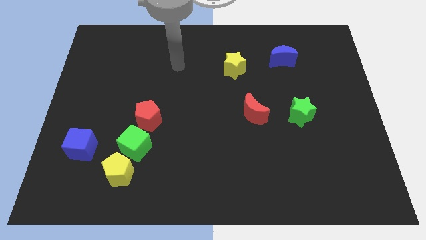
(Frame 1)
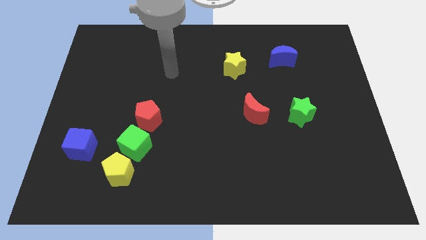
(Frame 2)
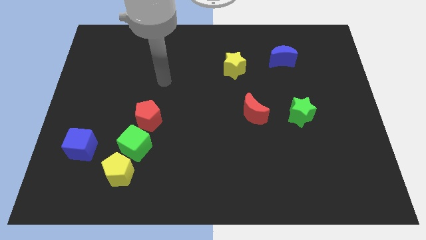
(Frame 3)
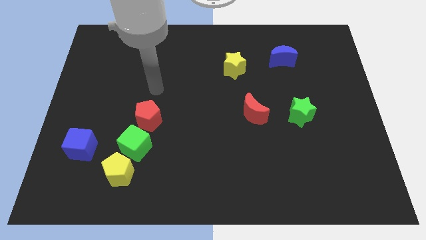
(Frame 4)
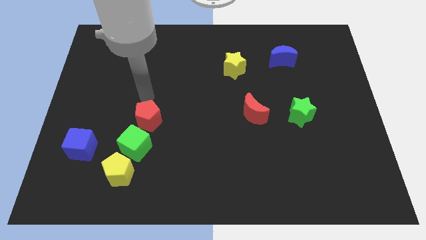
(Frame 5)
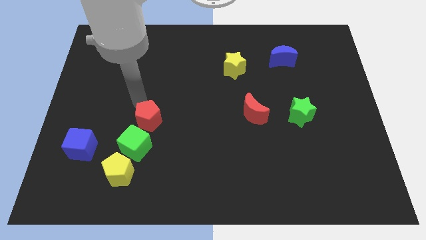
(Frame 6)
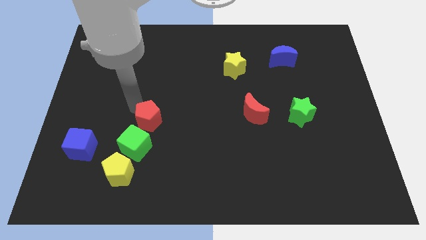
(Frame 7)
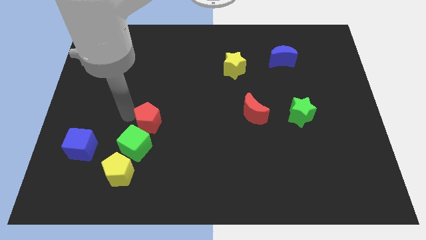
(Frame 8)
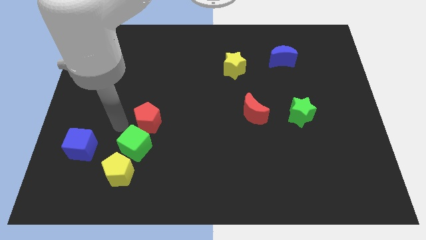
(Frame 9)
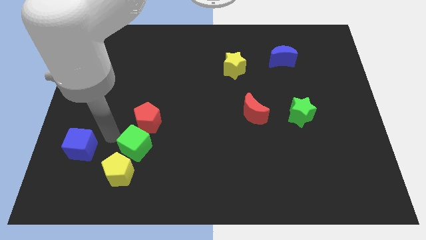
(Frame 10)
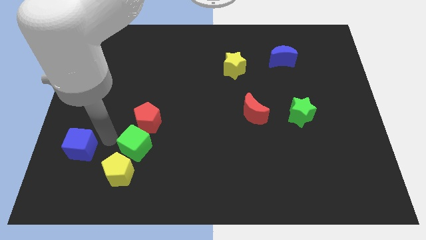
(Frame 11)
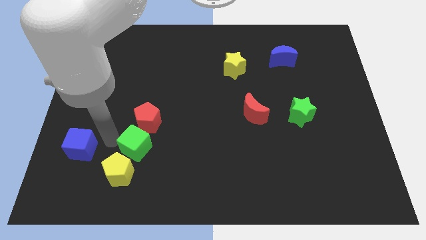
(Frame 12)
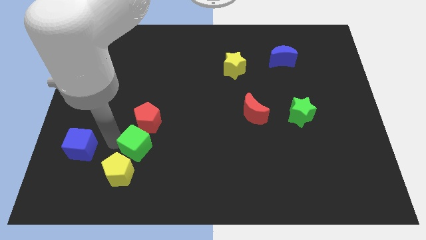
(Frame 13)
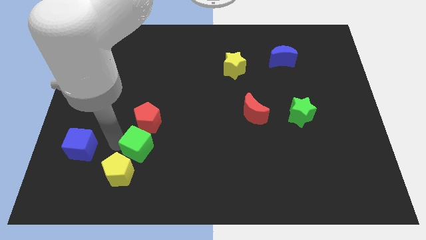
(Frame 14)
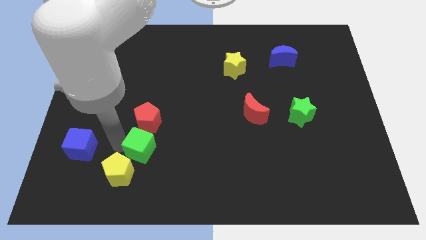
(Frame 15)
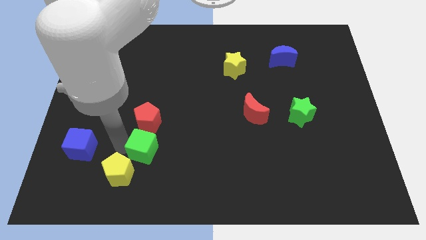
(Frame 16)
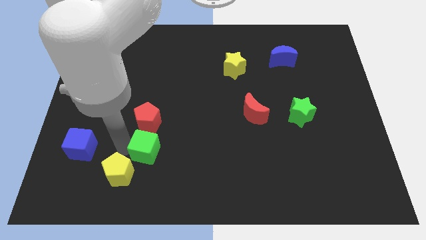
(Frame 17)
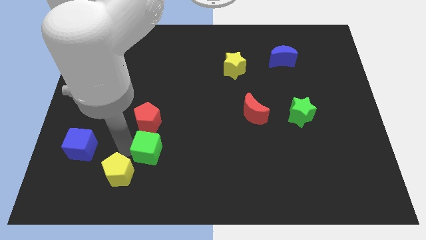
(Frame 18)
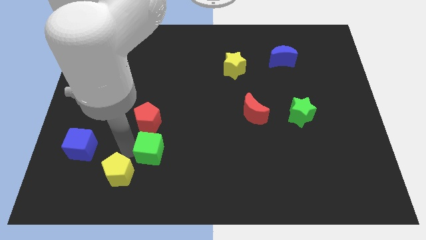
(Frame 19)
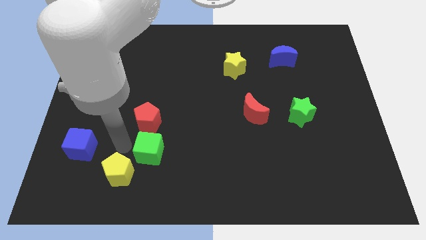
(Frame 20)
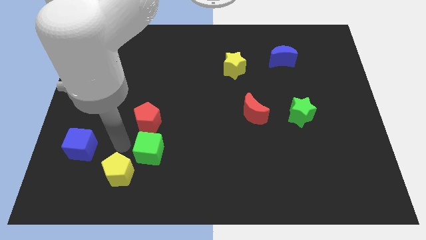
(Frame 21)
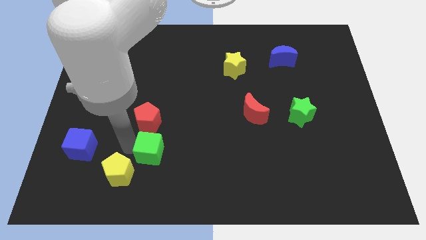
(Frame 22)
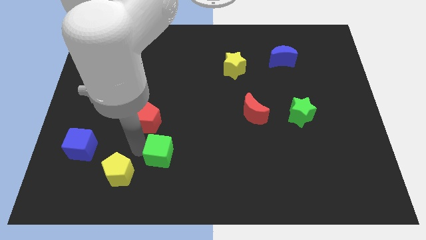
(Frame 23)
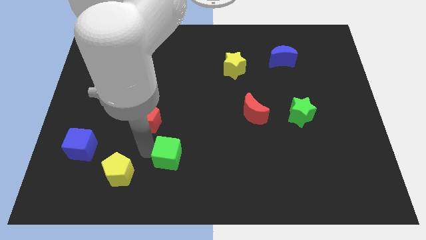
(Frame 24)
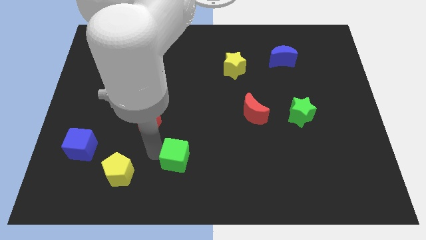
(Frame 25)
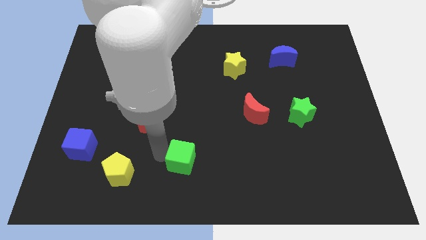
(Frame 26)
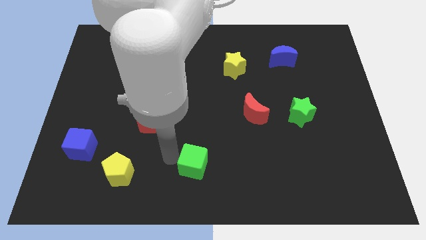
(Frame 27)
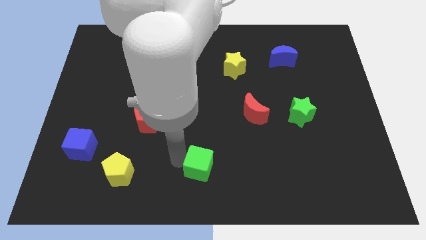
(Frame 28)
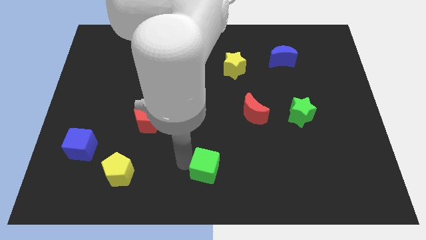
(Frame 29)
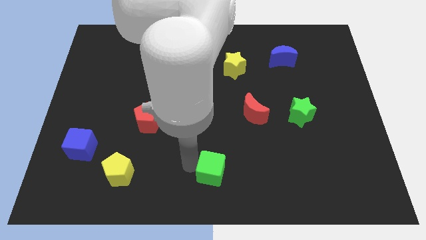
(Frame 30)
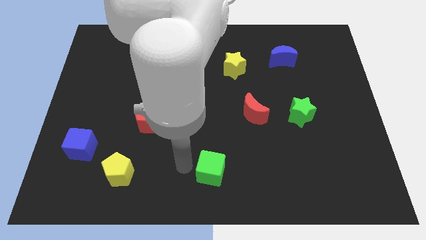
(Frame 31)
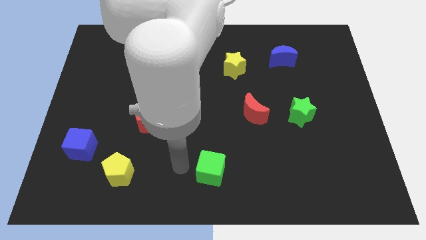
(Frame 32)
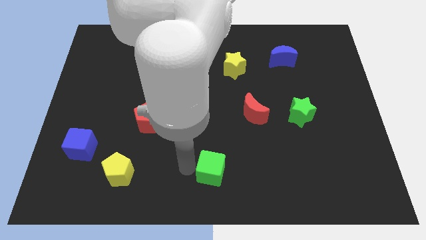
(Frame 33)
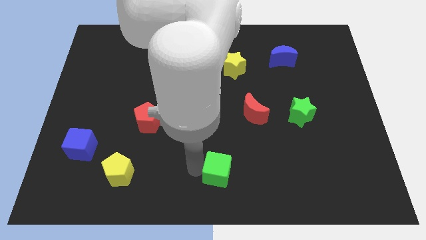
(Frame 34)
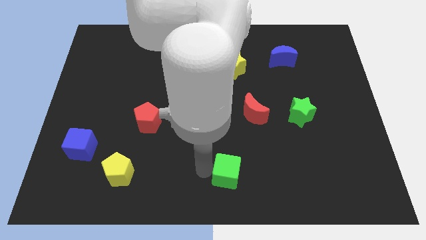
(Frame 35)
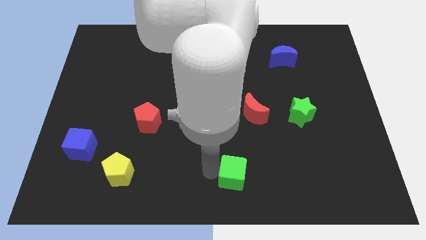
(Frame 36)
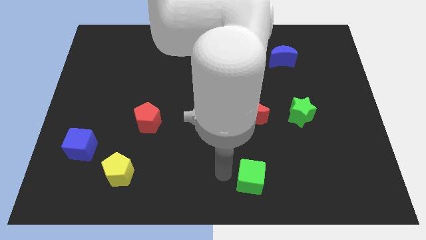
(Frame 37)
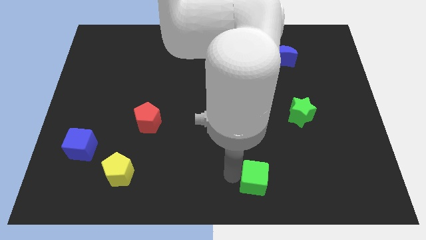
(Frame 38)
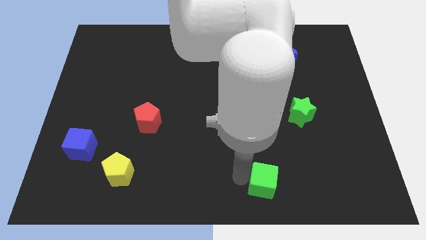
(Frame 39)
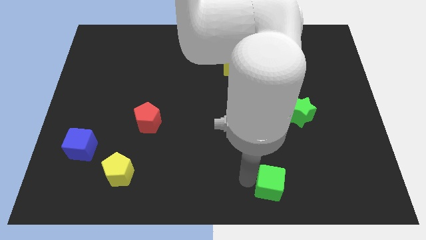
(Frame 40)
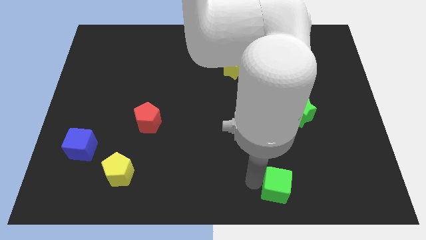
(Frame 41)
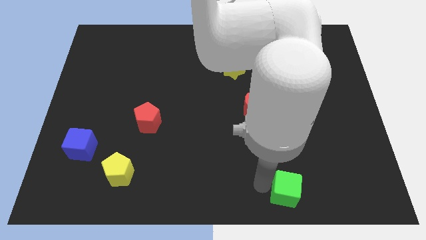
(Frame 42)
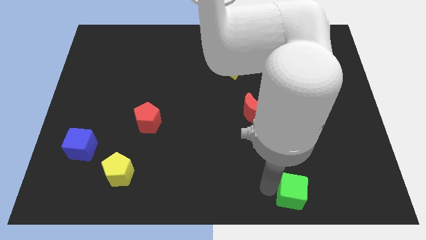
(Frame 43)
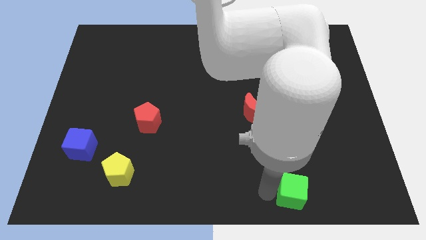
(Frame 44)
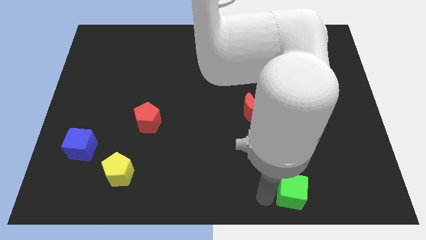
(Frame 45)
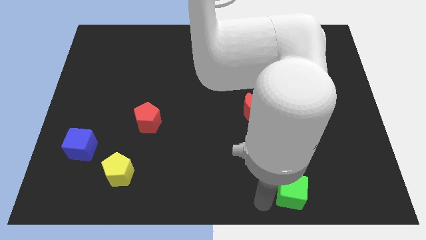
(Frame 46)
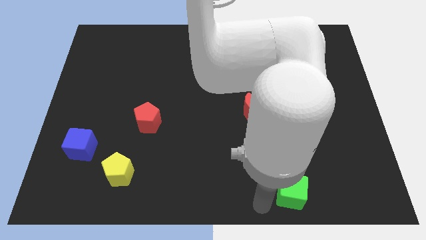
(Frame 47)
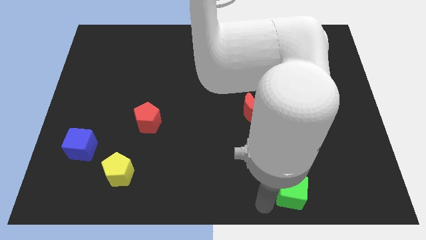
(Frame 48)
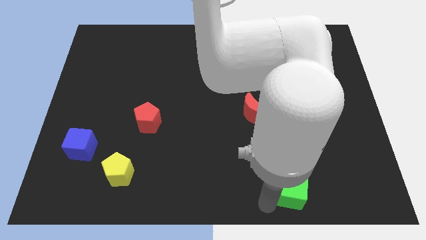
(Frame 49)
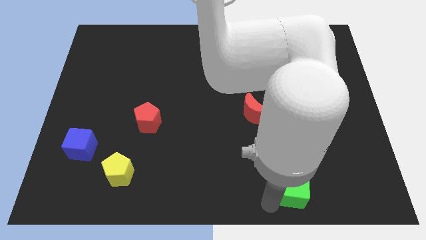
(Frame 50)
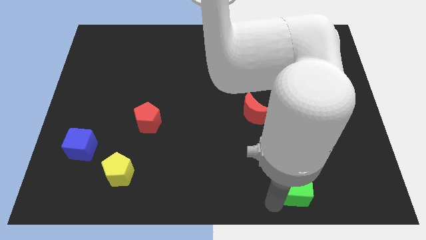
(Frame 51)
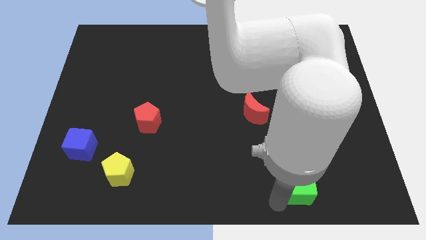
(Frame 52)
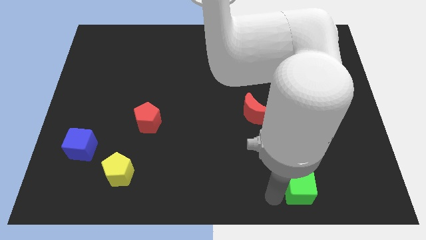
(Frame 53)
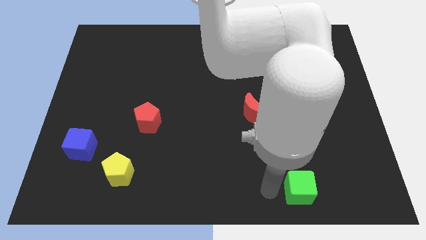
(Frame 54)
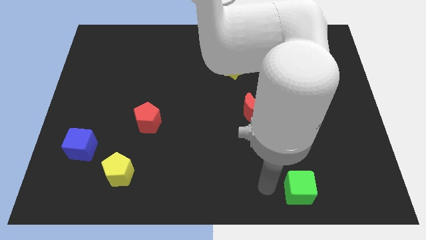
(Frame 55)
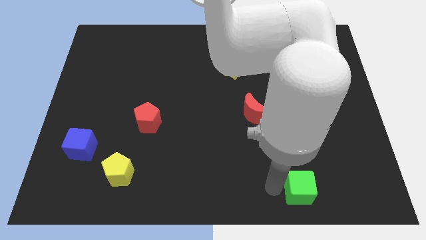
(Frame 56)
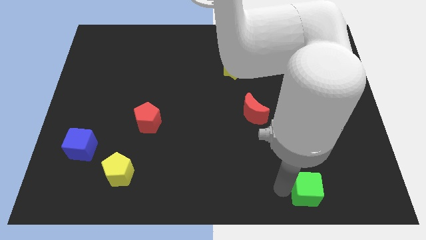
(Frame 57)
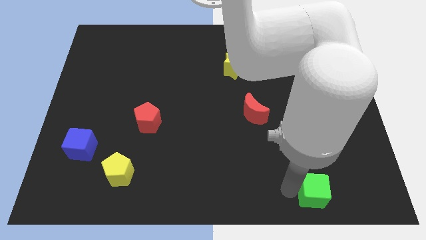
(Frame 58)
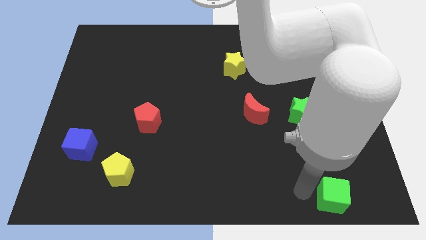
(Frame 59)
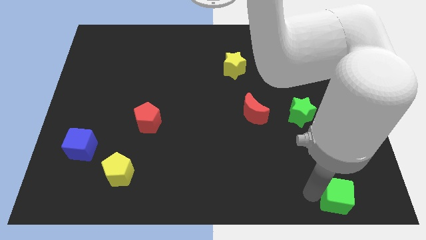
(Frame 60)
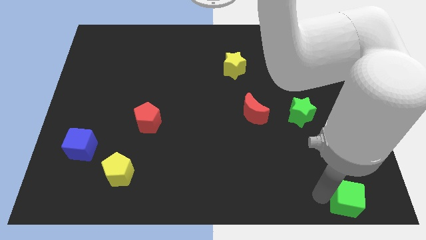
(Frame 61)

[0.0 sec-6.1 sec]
push the green cube to the bottom right corner
